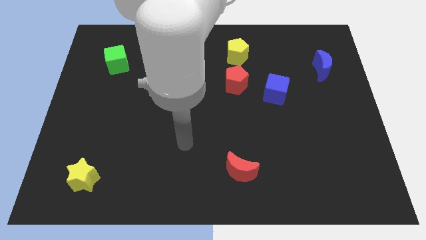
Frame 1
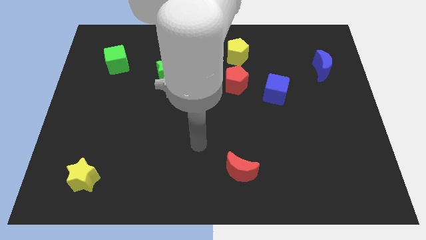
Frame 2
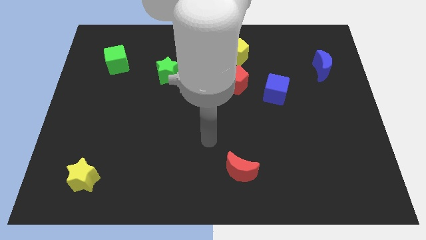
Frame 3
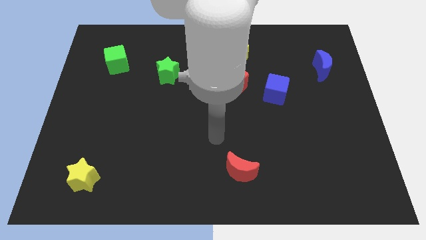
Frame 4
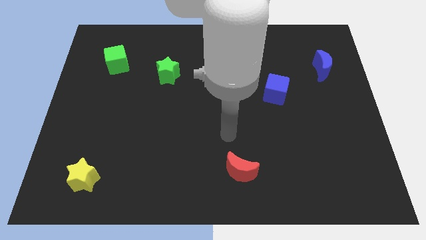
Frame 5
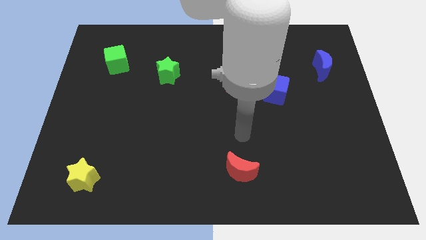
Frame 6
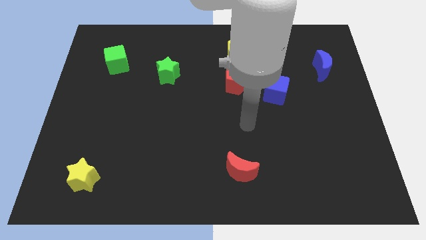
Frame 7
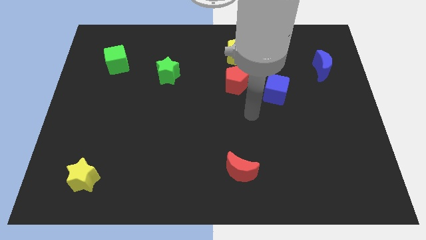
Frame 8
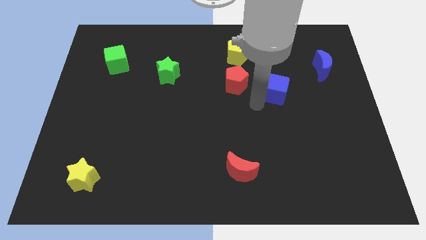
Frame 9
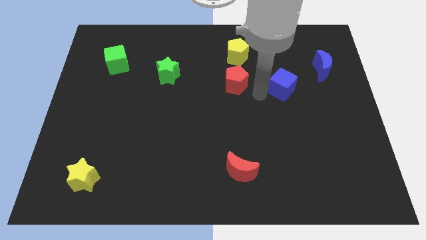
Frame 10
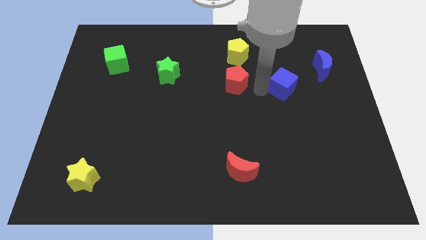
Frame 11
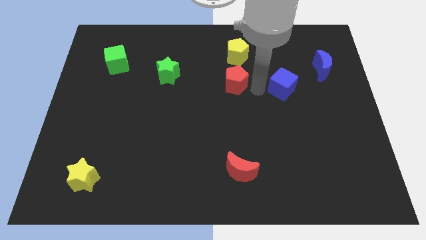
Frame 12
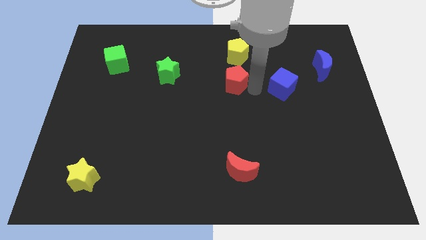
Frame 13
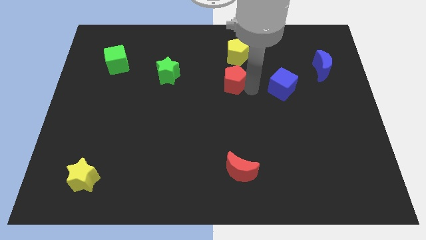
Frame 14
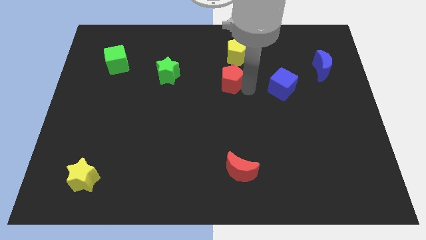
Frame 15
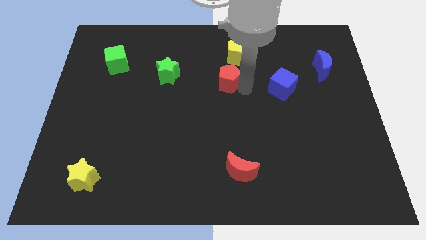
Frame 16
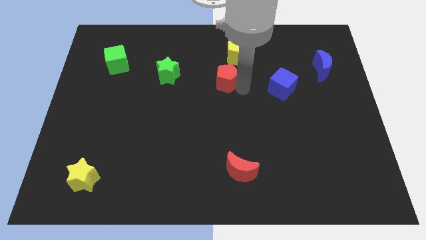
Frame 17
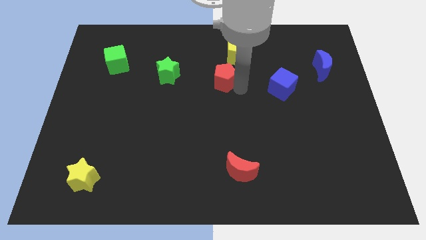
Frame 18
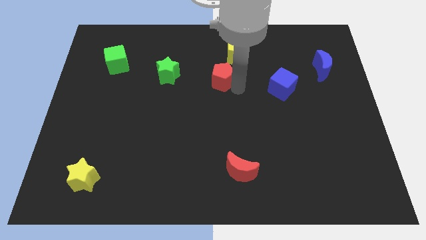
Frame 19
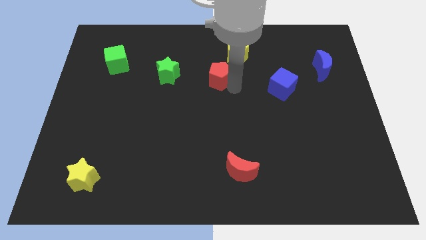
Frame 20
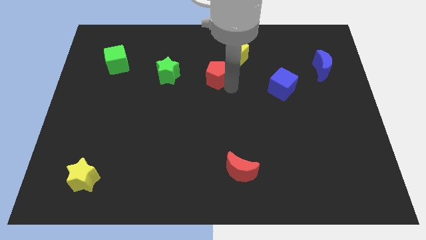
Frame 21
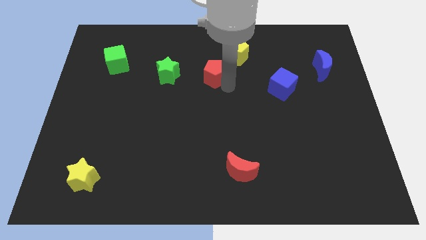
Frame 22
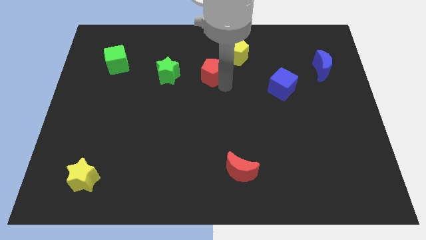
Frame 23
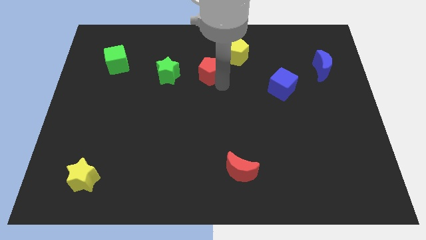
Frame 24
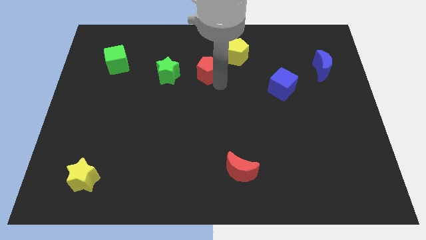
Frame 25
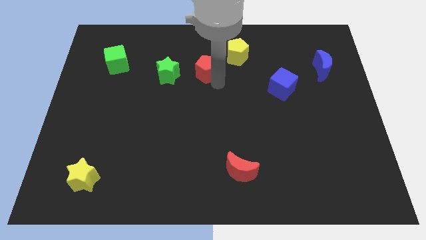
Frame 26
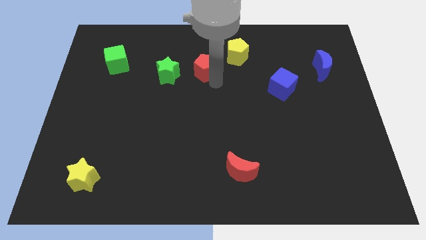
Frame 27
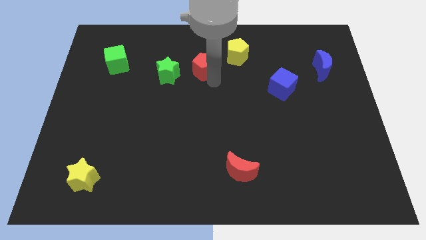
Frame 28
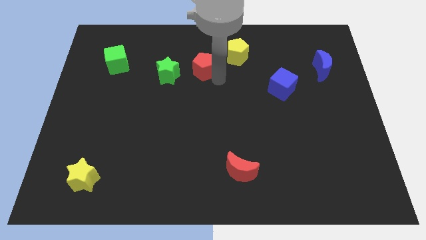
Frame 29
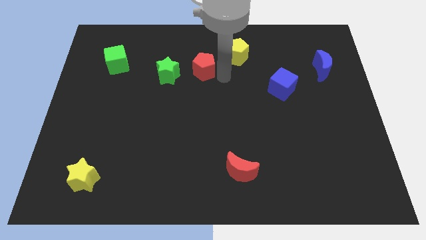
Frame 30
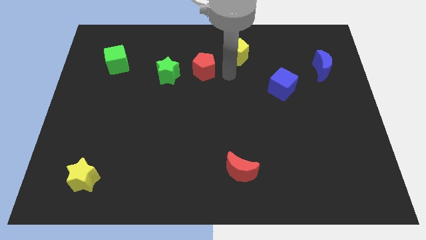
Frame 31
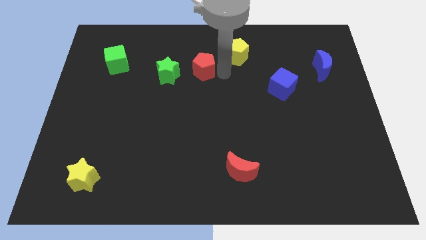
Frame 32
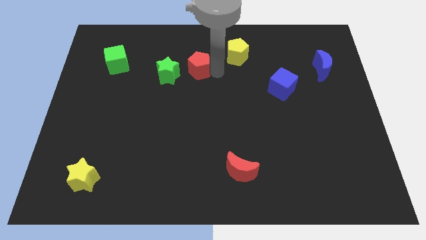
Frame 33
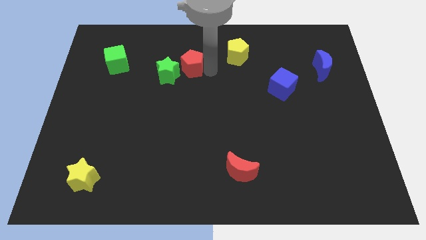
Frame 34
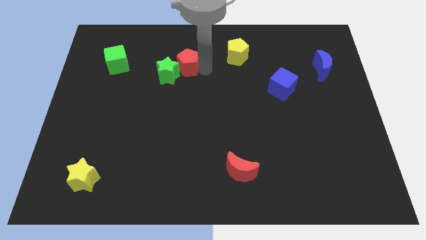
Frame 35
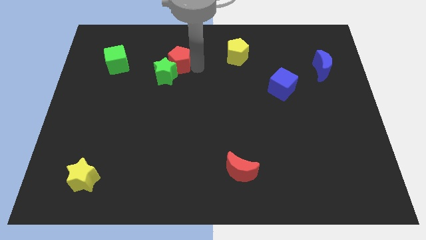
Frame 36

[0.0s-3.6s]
push the red pentagon right of the green cube

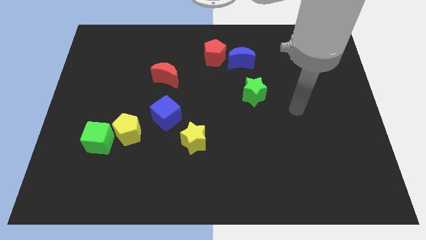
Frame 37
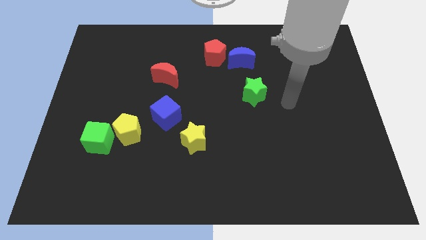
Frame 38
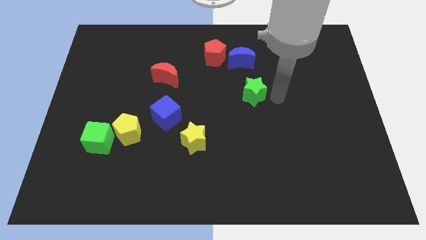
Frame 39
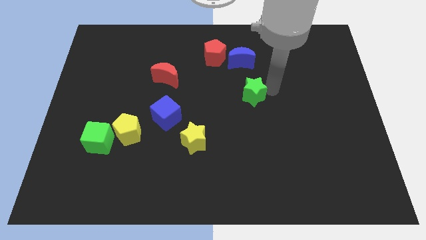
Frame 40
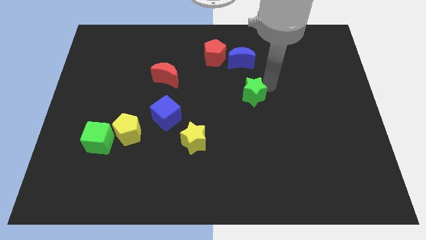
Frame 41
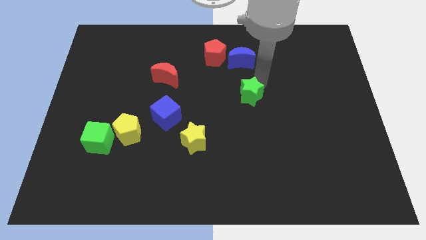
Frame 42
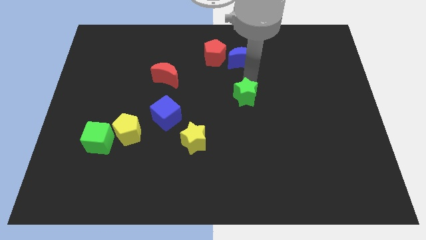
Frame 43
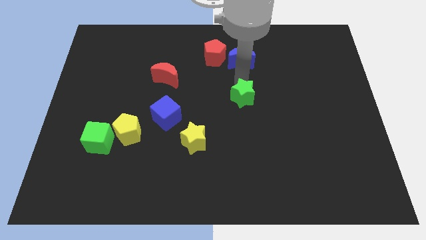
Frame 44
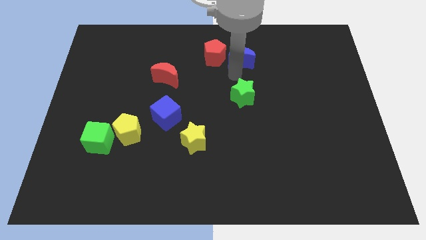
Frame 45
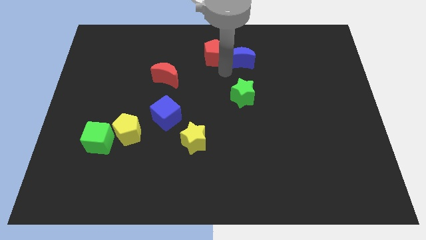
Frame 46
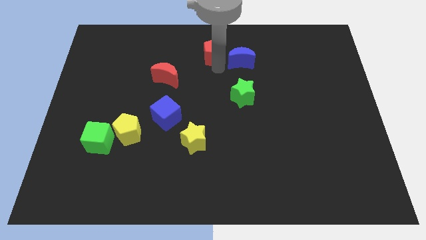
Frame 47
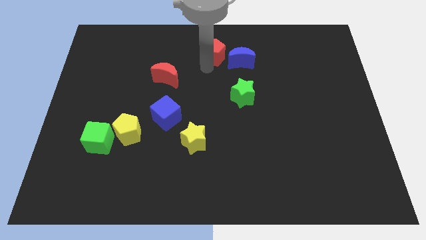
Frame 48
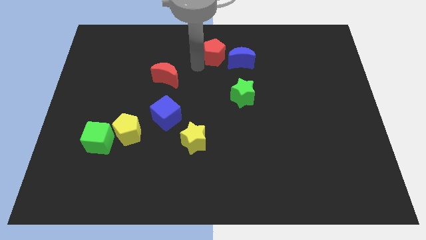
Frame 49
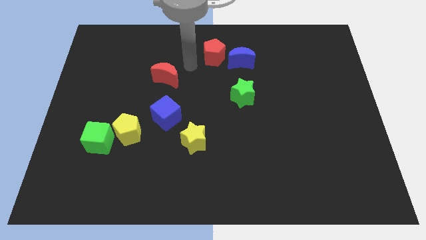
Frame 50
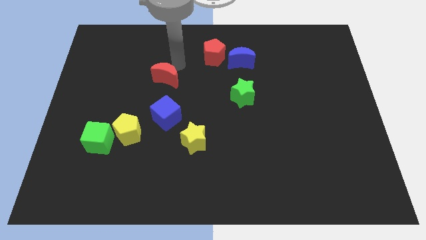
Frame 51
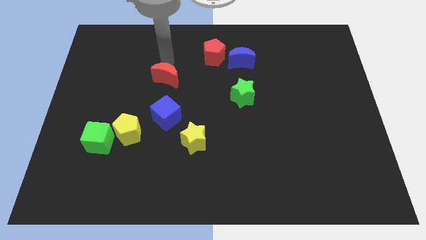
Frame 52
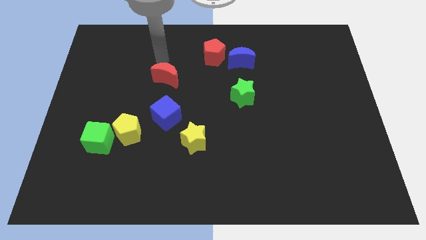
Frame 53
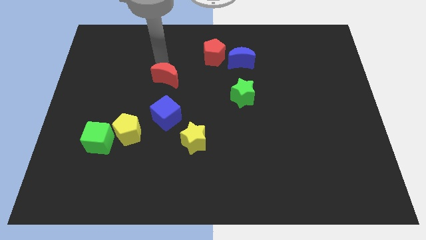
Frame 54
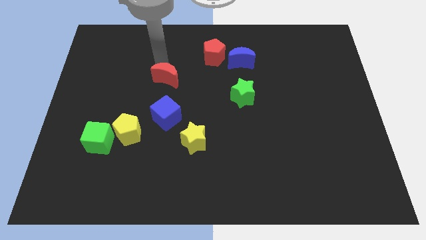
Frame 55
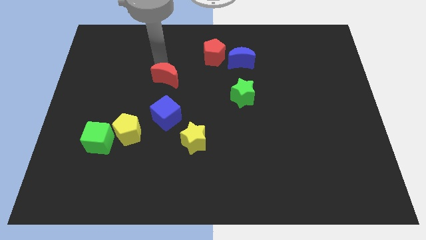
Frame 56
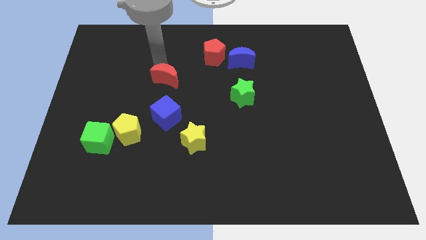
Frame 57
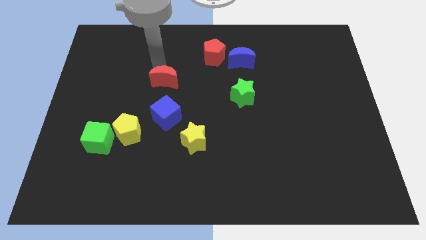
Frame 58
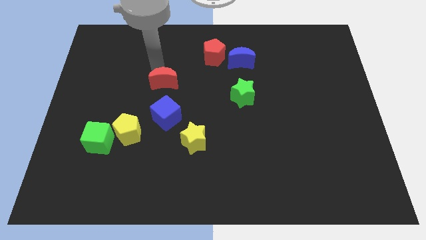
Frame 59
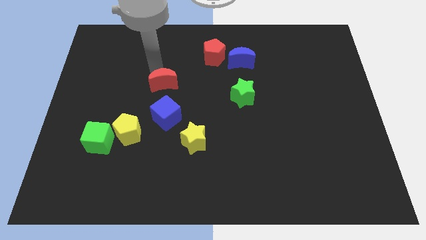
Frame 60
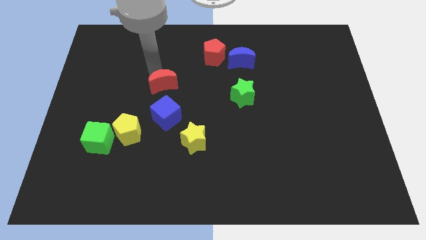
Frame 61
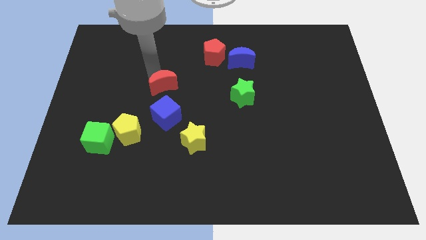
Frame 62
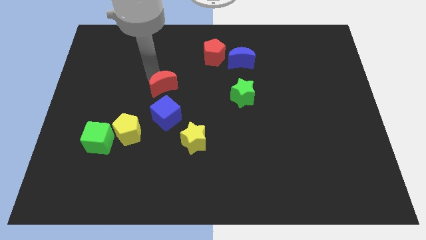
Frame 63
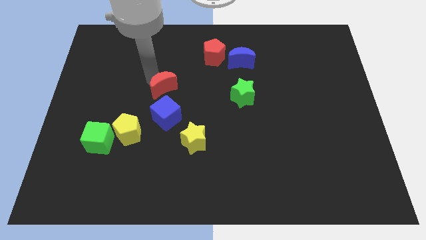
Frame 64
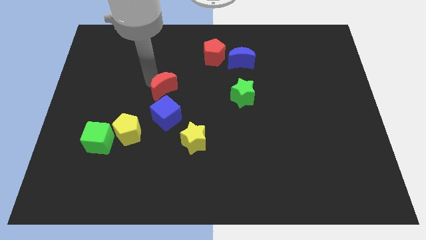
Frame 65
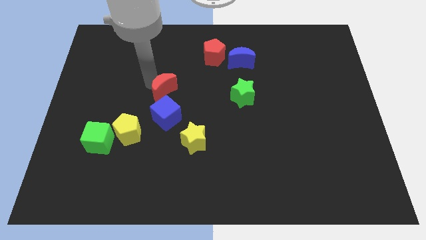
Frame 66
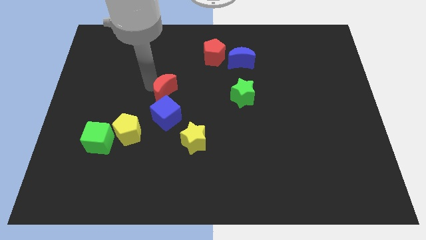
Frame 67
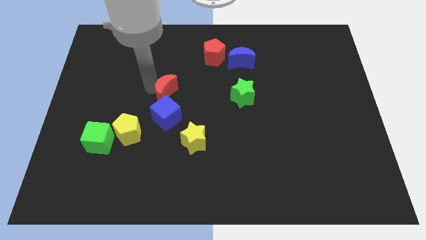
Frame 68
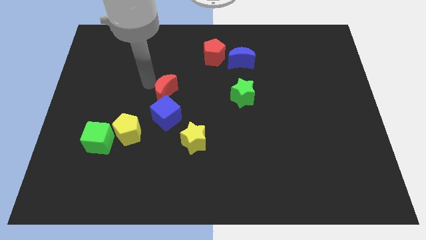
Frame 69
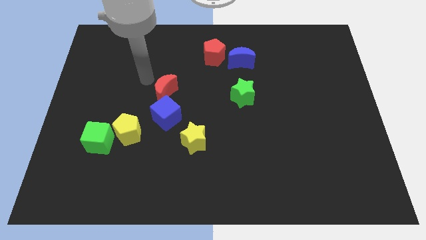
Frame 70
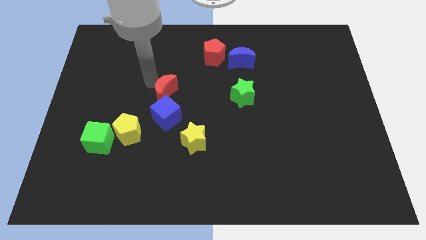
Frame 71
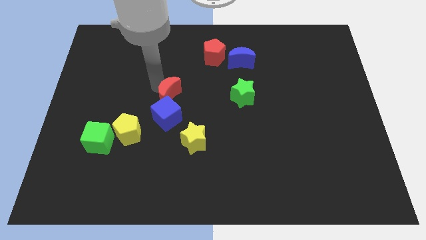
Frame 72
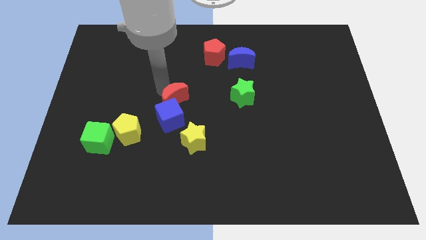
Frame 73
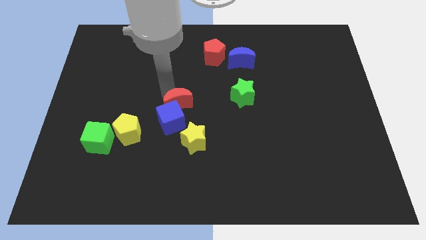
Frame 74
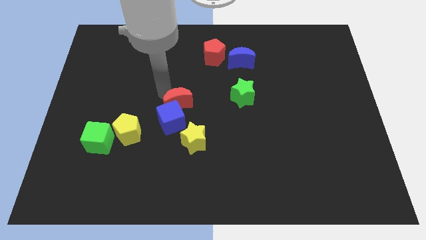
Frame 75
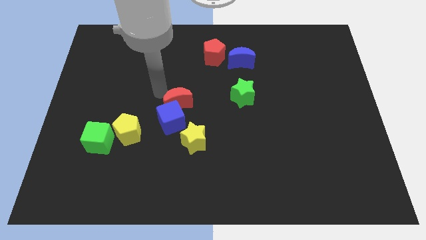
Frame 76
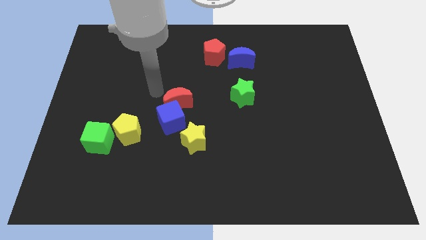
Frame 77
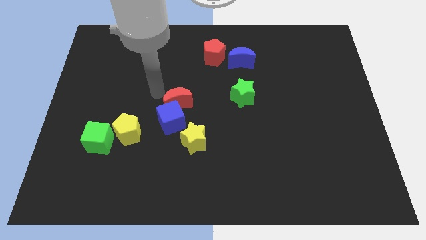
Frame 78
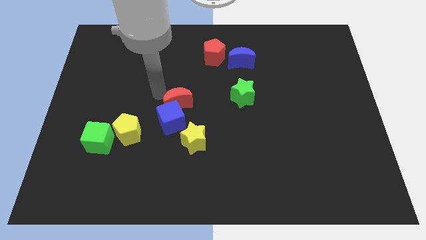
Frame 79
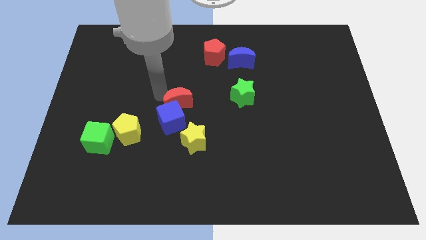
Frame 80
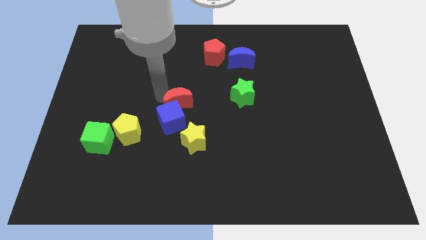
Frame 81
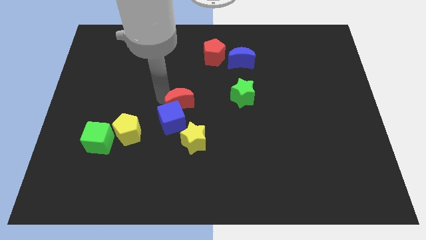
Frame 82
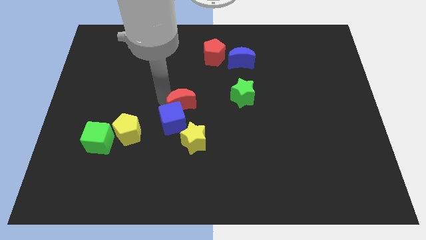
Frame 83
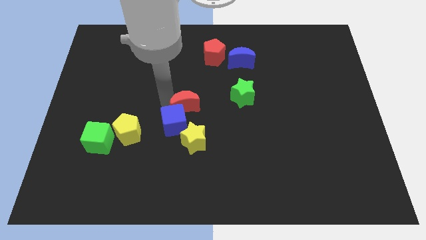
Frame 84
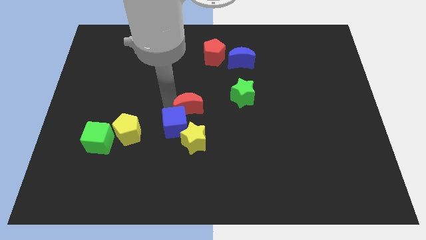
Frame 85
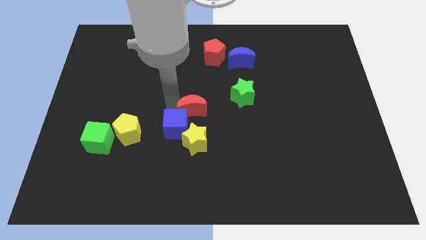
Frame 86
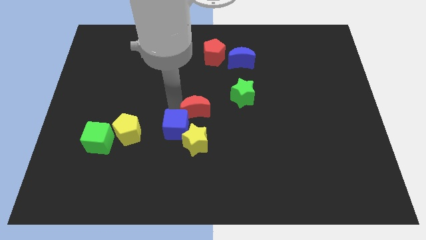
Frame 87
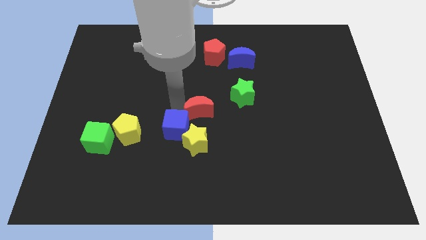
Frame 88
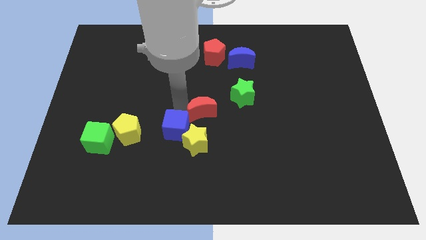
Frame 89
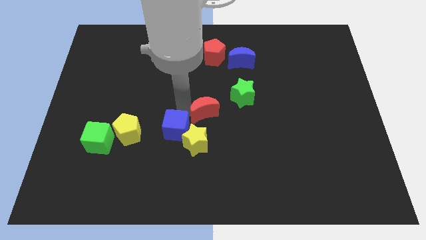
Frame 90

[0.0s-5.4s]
put the red moon to the top right side of the yellow star
